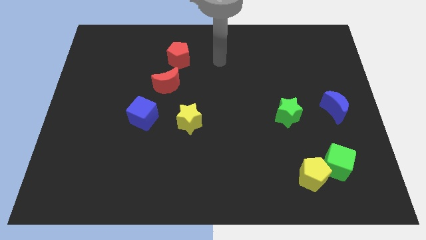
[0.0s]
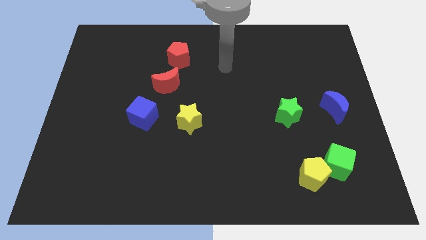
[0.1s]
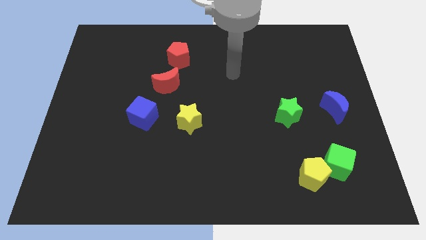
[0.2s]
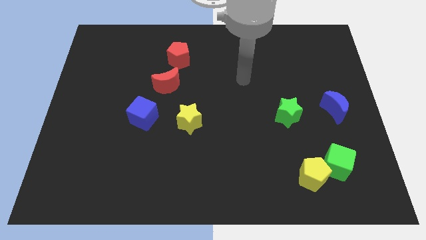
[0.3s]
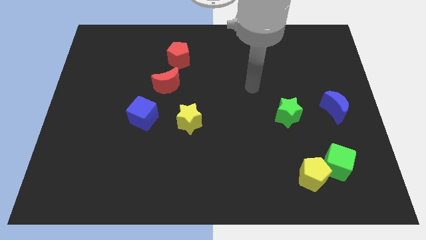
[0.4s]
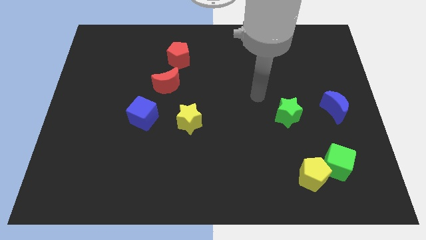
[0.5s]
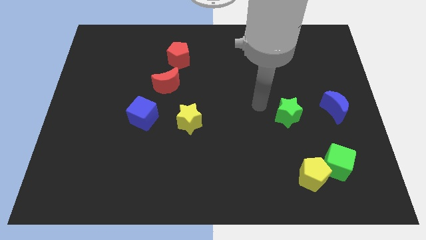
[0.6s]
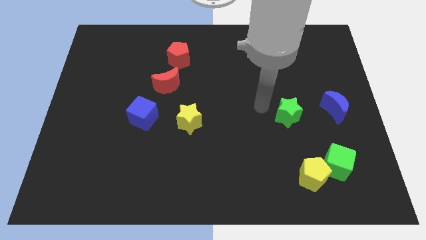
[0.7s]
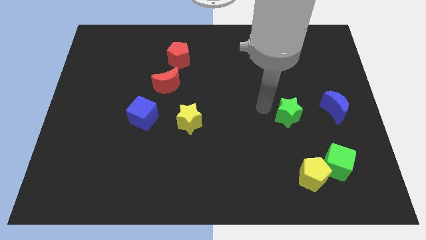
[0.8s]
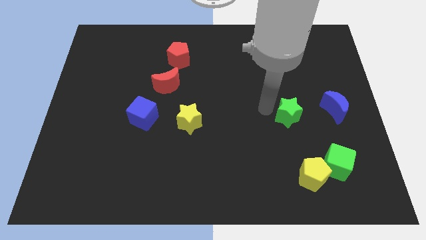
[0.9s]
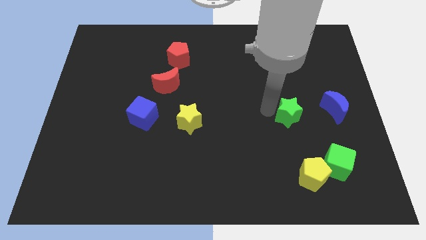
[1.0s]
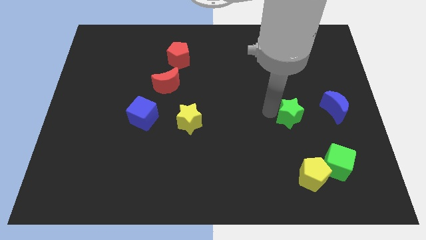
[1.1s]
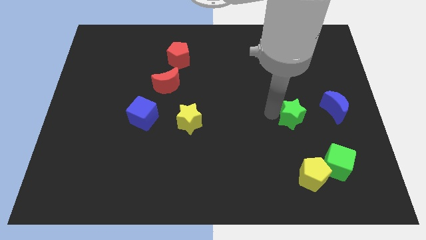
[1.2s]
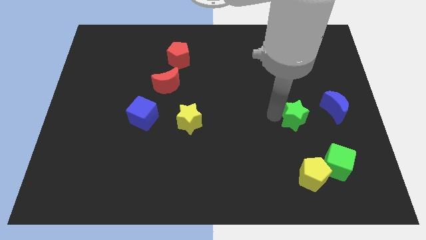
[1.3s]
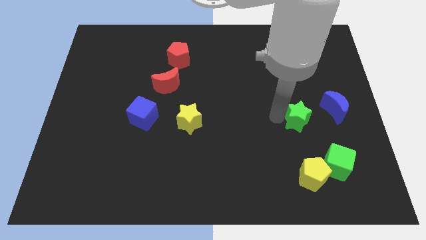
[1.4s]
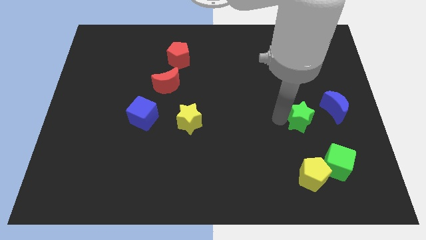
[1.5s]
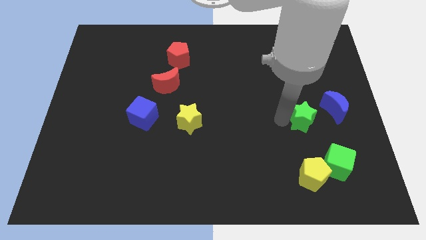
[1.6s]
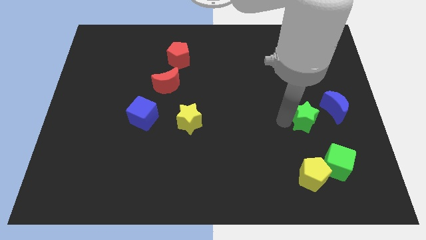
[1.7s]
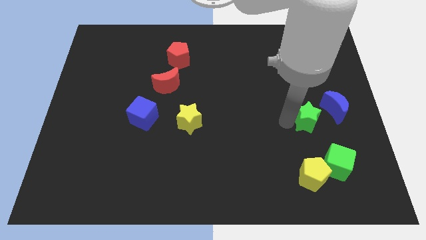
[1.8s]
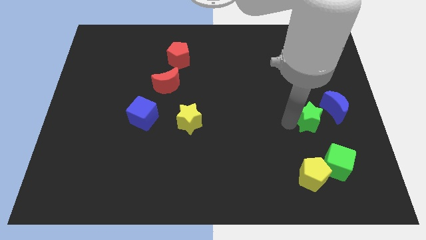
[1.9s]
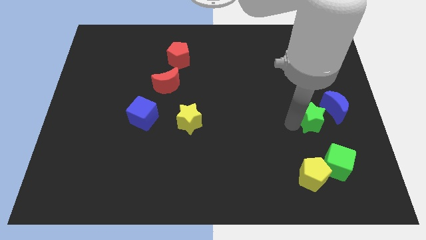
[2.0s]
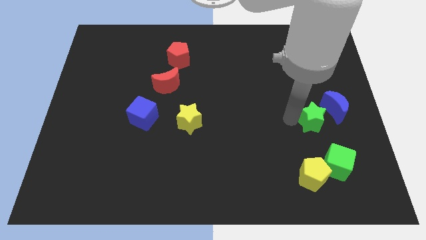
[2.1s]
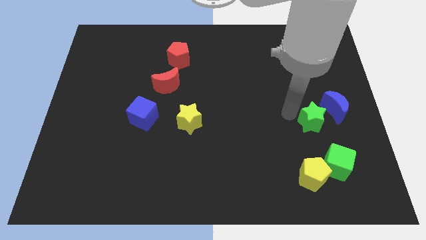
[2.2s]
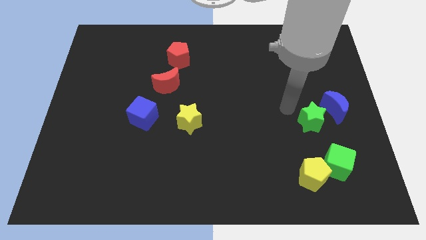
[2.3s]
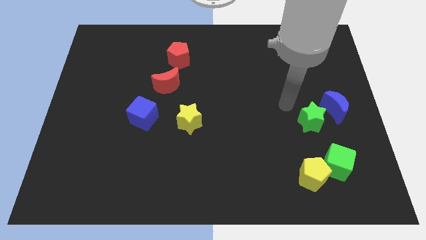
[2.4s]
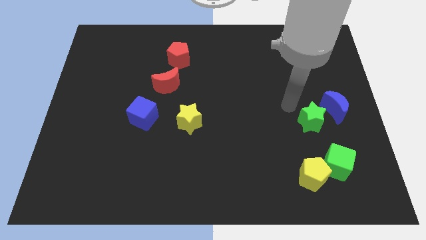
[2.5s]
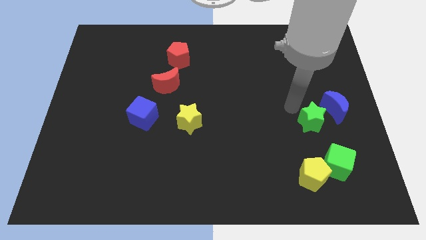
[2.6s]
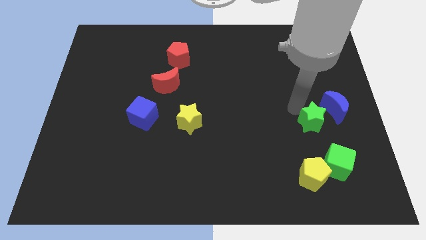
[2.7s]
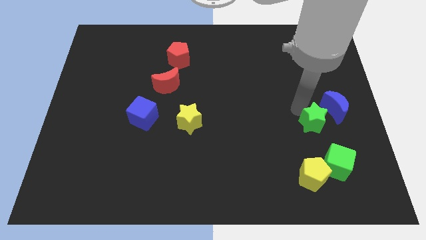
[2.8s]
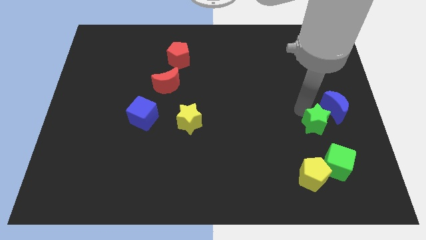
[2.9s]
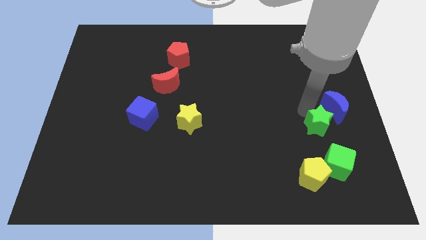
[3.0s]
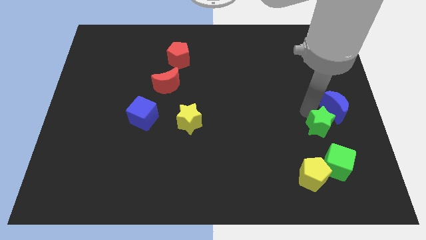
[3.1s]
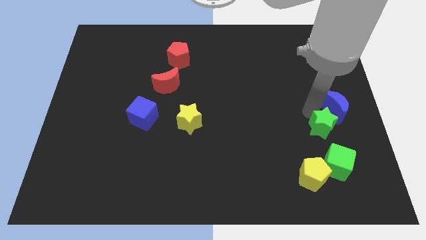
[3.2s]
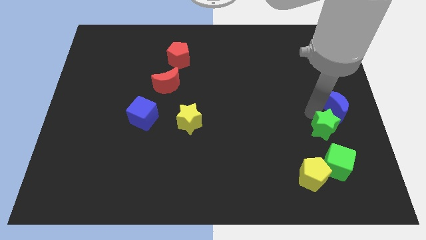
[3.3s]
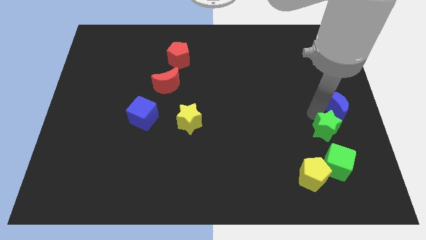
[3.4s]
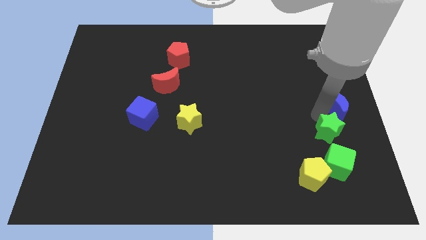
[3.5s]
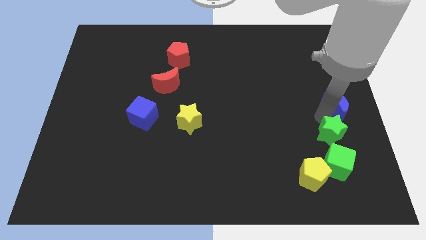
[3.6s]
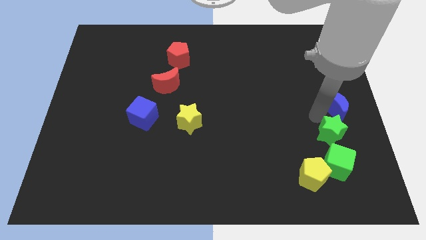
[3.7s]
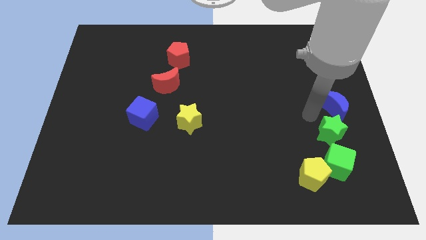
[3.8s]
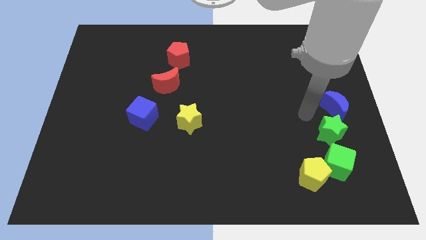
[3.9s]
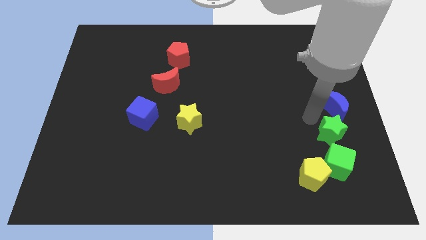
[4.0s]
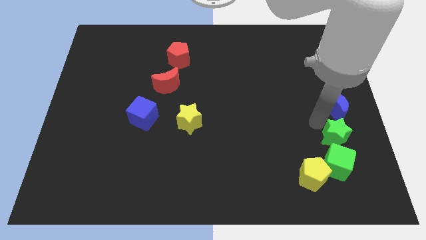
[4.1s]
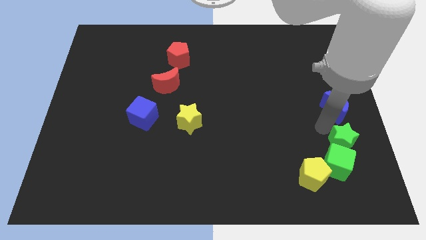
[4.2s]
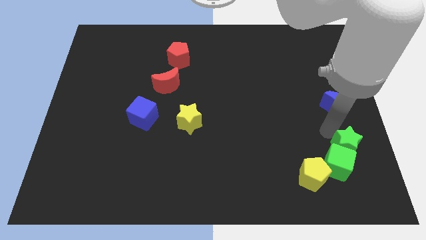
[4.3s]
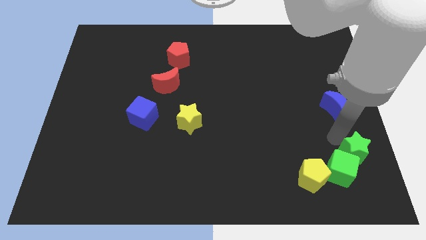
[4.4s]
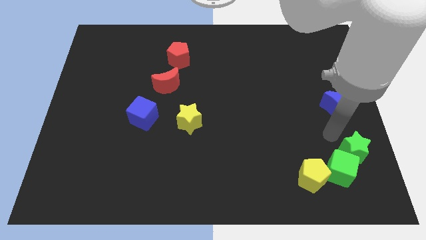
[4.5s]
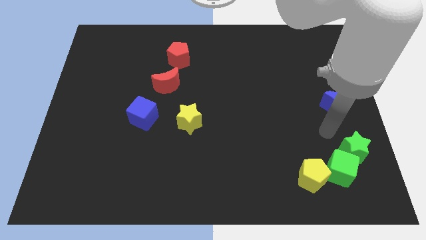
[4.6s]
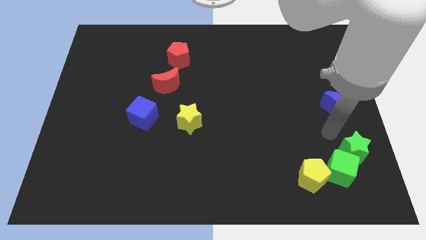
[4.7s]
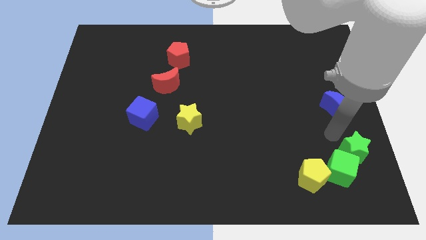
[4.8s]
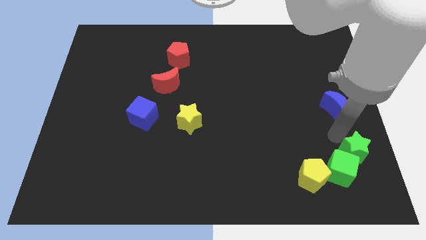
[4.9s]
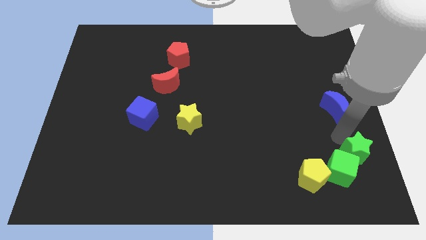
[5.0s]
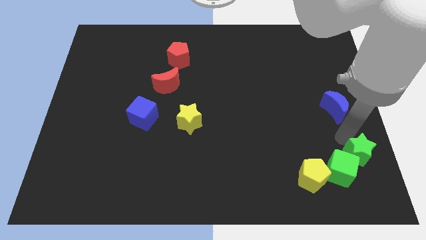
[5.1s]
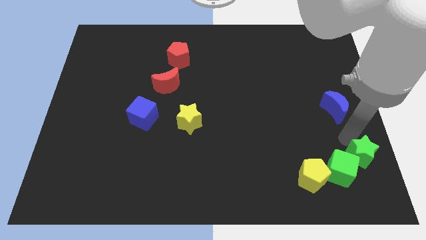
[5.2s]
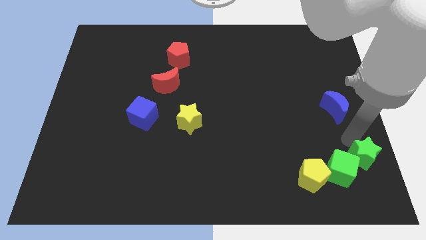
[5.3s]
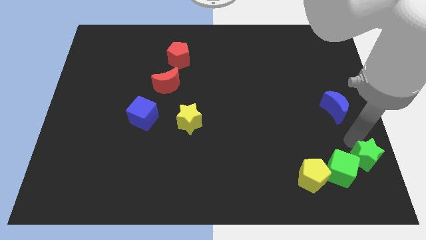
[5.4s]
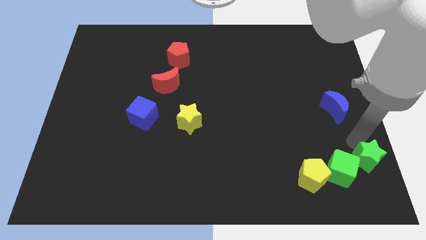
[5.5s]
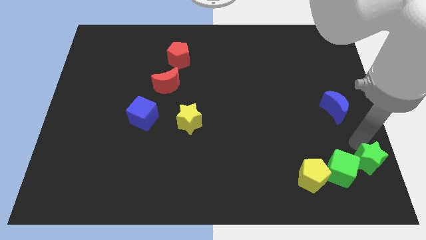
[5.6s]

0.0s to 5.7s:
put the green star to the bottom right corner
